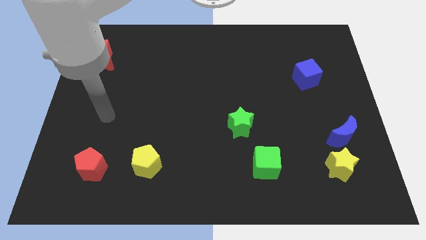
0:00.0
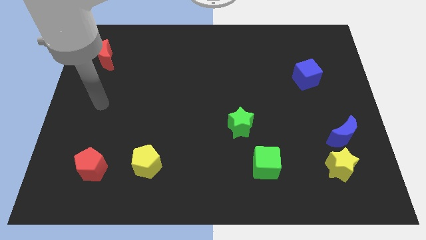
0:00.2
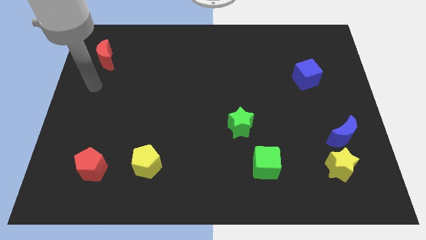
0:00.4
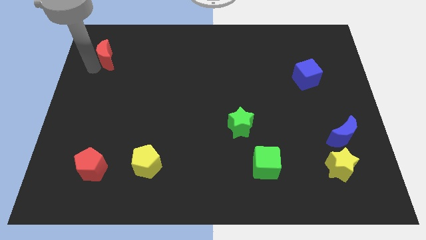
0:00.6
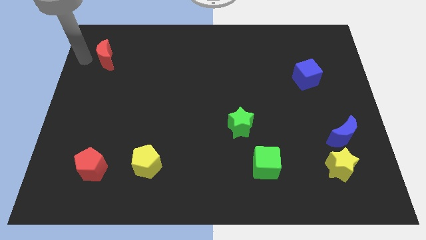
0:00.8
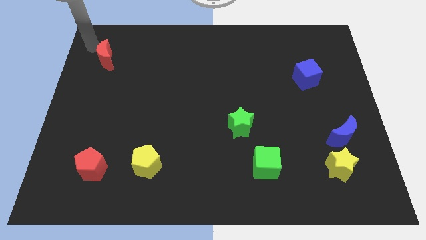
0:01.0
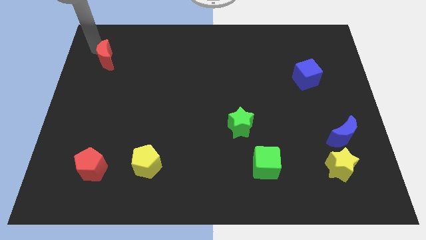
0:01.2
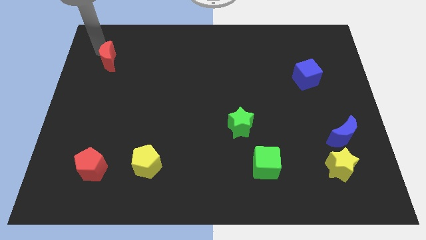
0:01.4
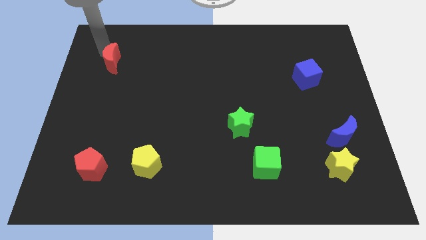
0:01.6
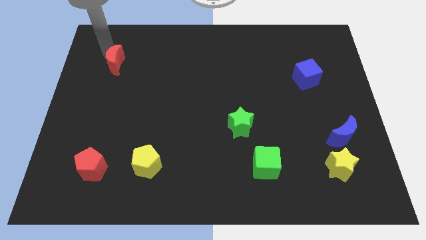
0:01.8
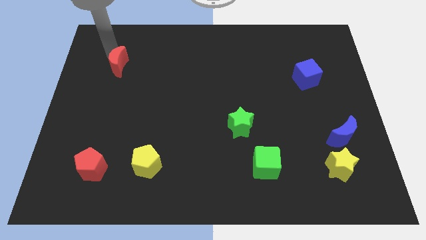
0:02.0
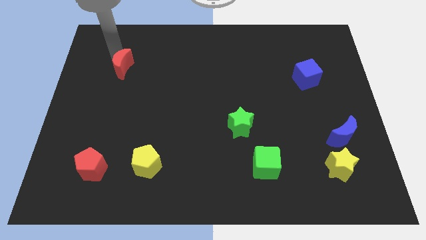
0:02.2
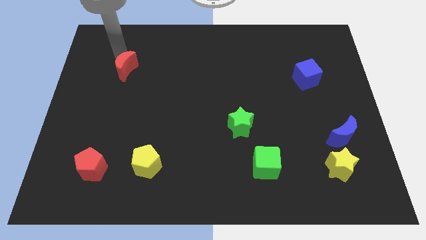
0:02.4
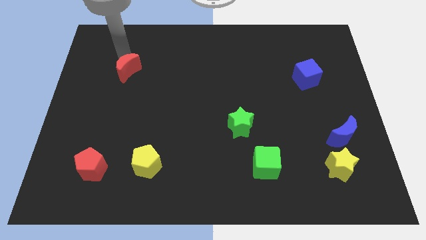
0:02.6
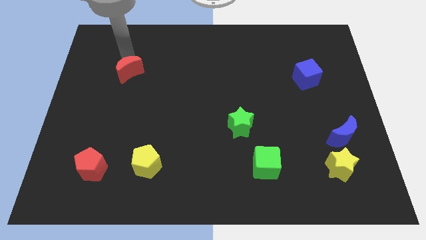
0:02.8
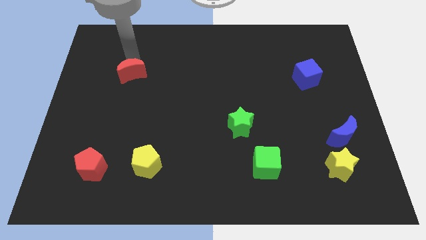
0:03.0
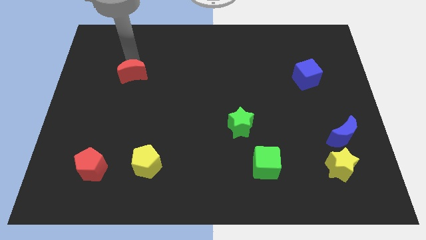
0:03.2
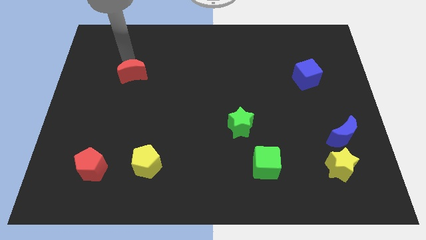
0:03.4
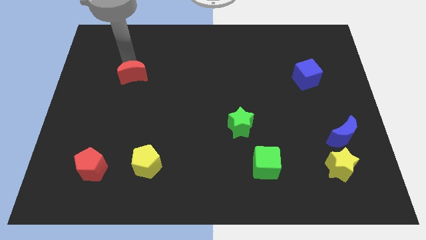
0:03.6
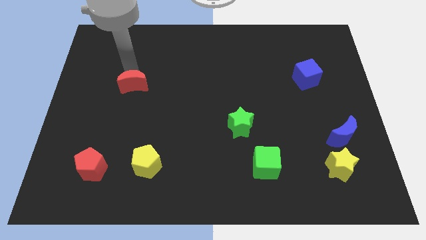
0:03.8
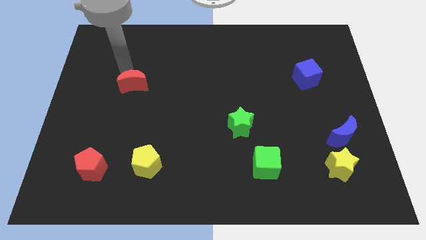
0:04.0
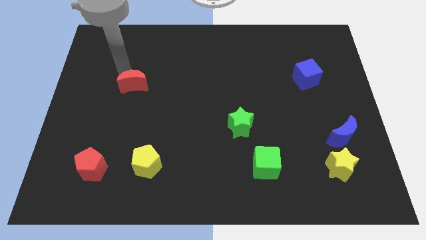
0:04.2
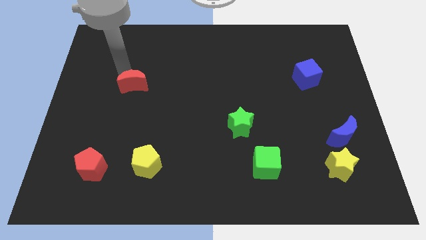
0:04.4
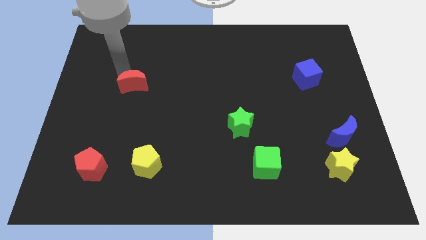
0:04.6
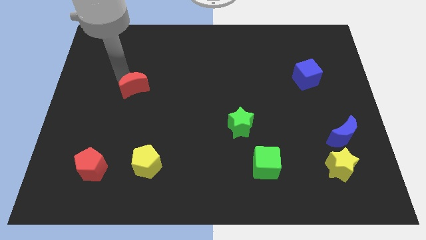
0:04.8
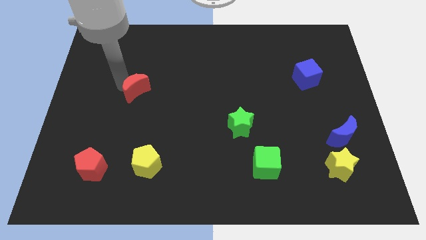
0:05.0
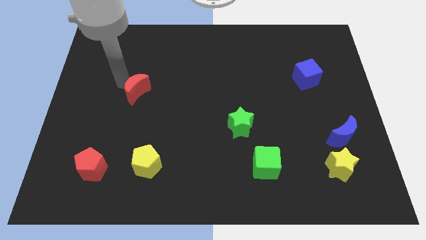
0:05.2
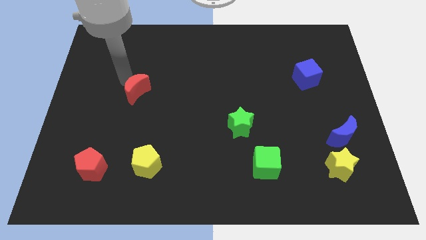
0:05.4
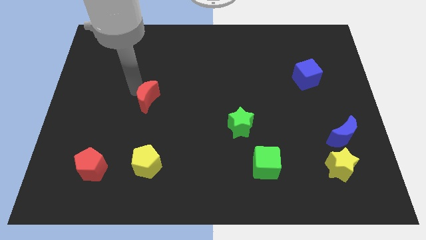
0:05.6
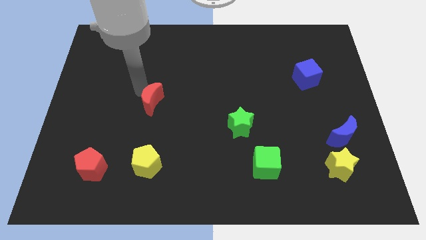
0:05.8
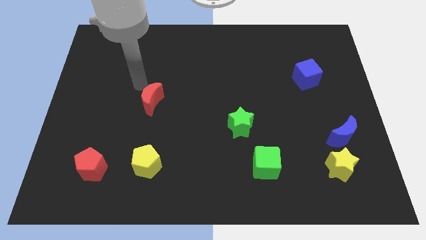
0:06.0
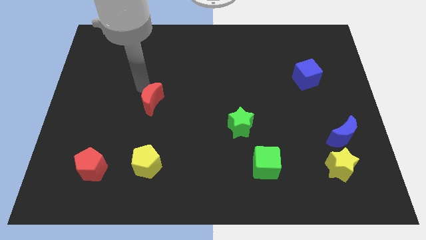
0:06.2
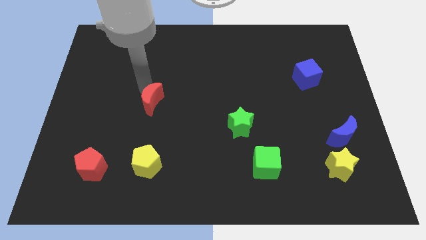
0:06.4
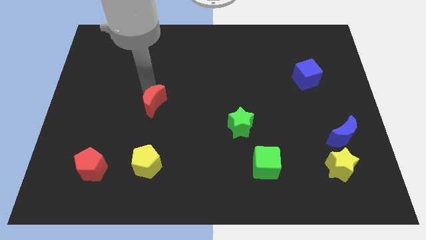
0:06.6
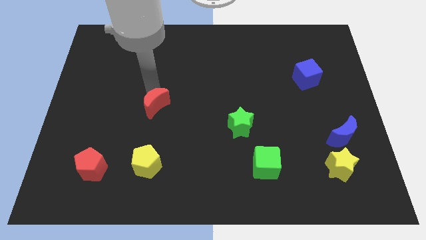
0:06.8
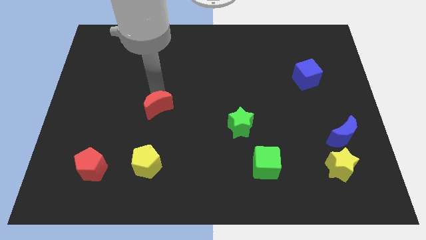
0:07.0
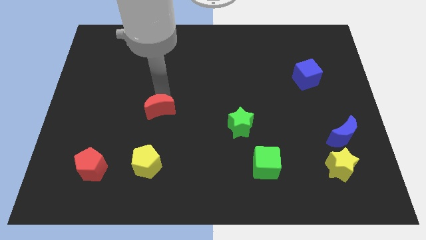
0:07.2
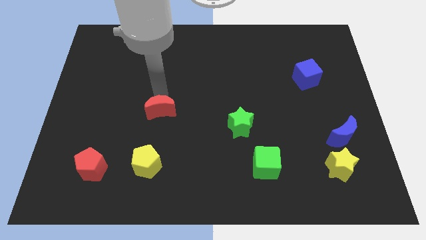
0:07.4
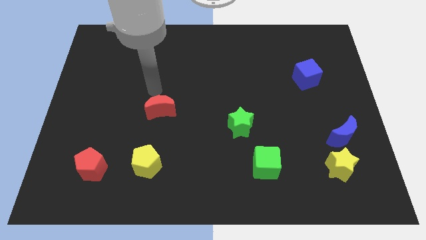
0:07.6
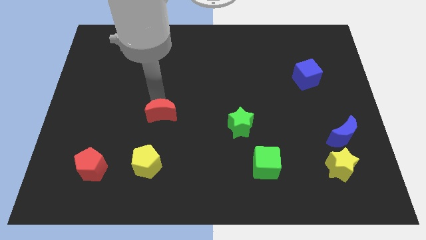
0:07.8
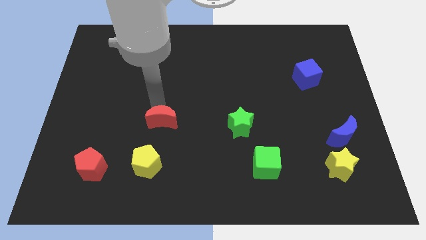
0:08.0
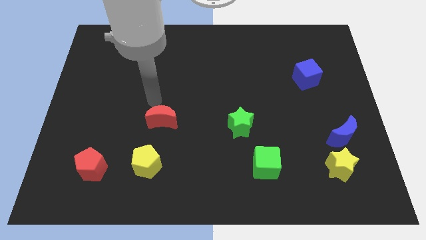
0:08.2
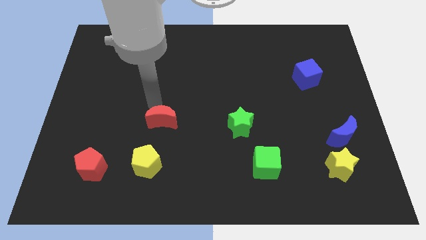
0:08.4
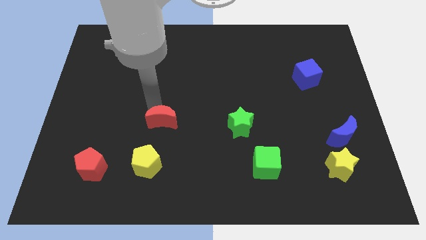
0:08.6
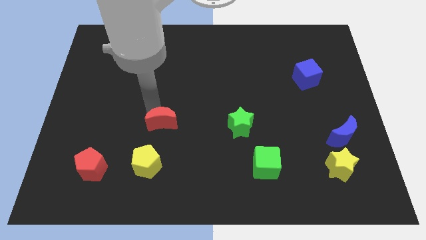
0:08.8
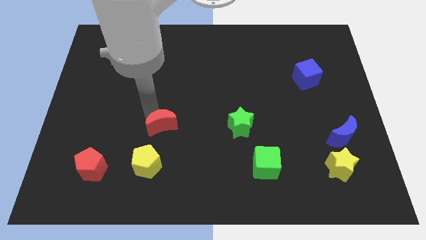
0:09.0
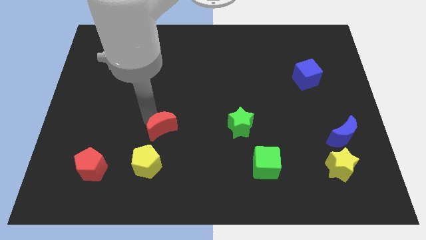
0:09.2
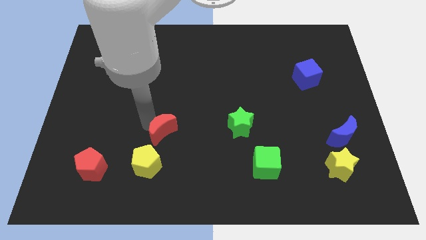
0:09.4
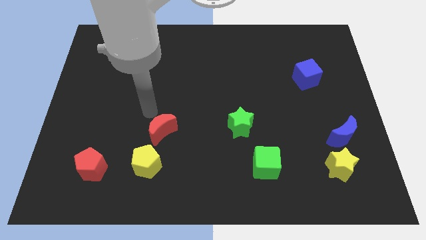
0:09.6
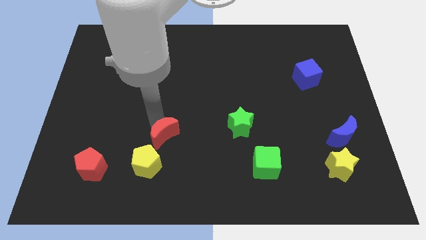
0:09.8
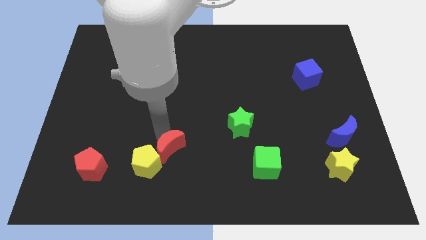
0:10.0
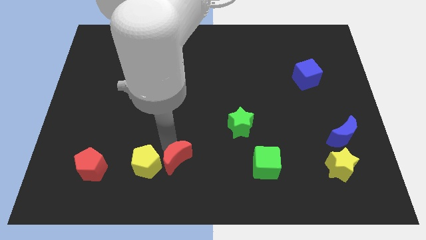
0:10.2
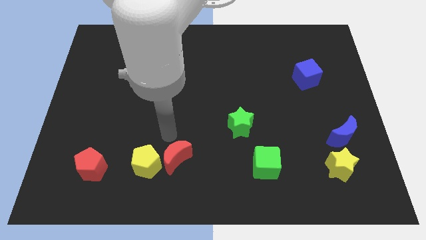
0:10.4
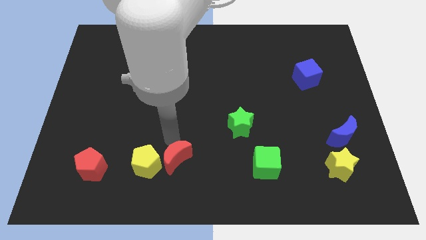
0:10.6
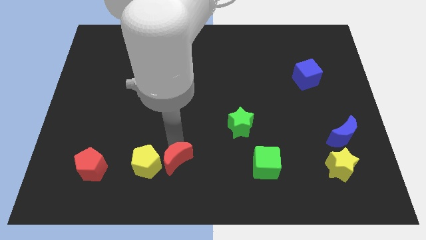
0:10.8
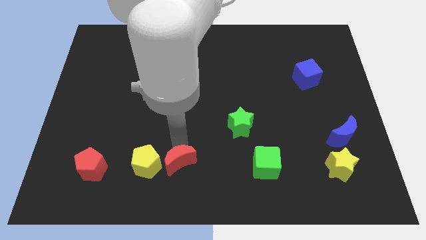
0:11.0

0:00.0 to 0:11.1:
put the red moon to the bottom

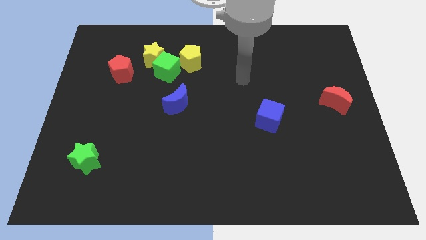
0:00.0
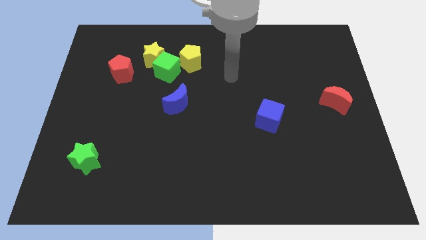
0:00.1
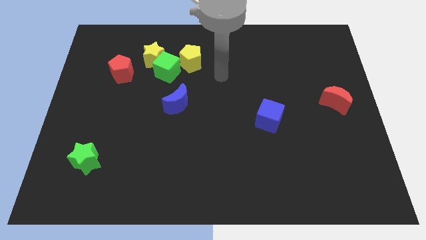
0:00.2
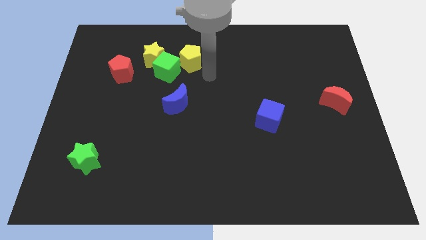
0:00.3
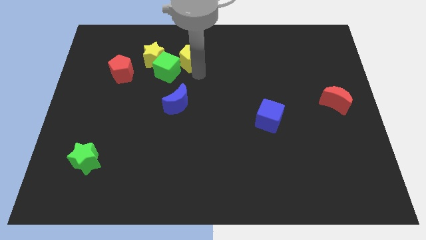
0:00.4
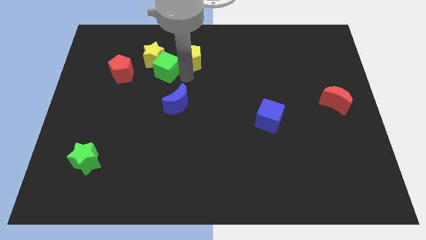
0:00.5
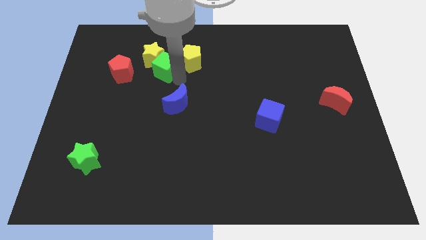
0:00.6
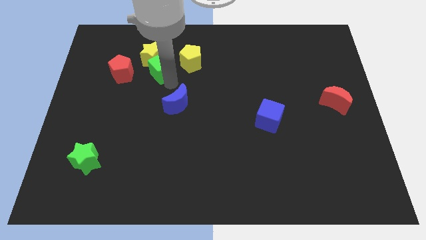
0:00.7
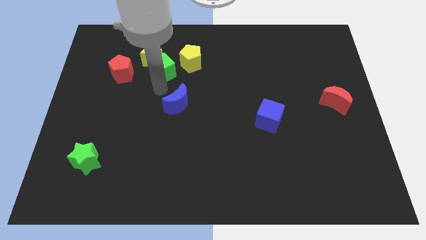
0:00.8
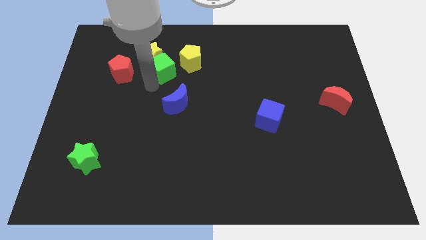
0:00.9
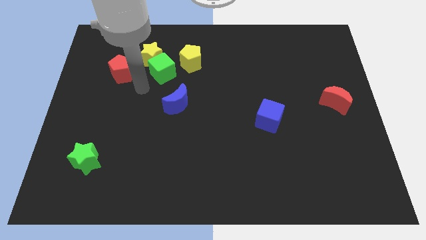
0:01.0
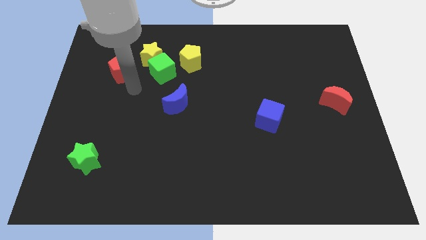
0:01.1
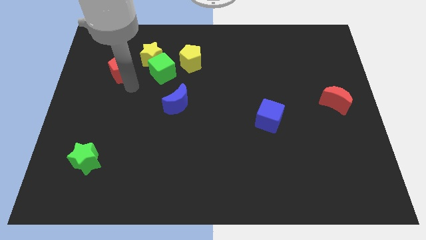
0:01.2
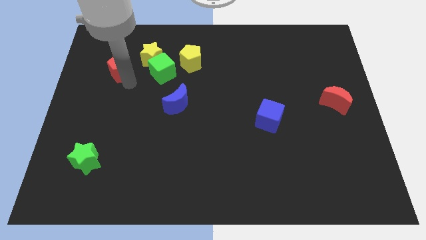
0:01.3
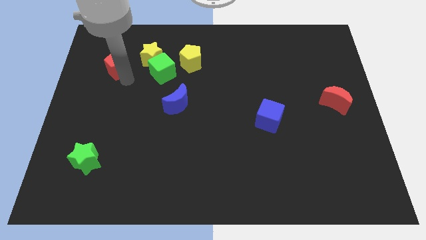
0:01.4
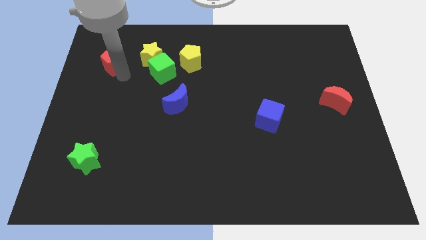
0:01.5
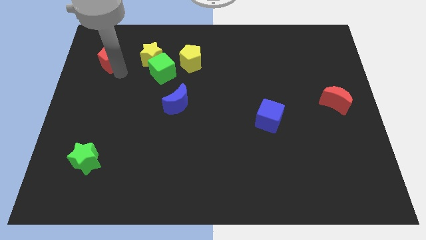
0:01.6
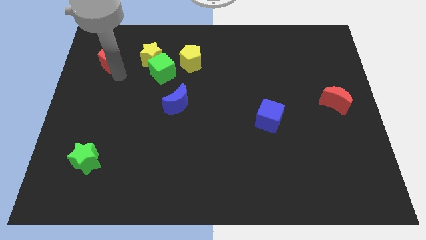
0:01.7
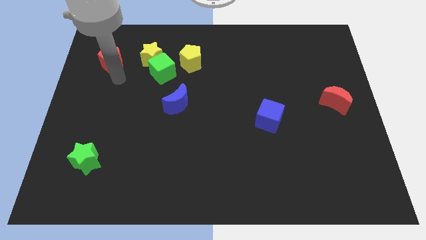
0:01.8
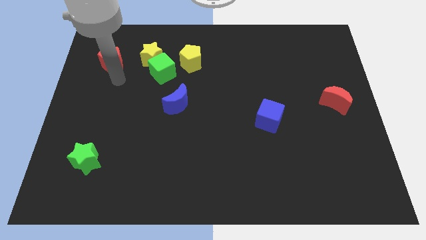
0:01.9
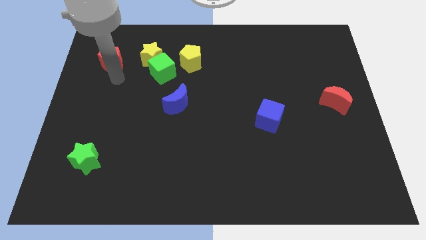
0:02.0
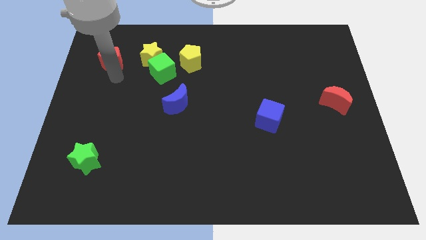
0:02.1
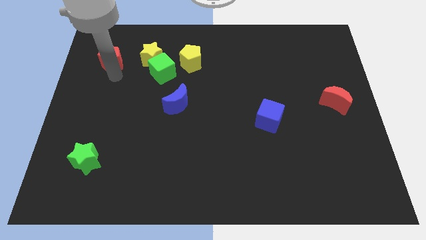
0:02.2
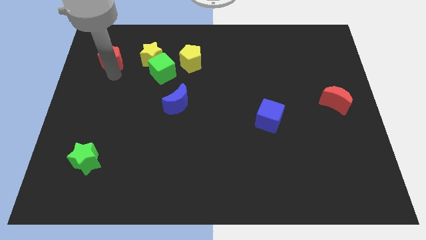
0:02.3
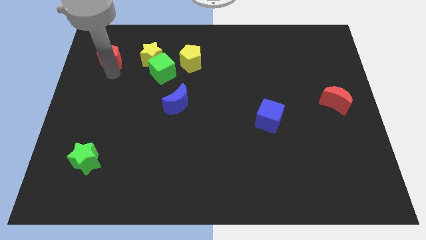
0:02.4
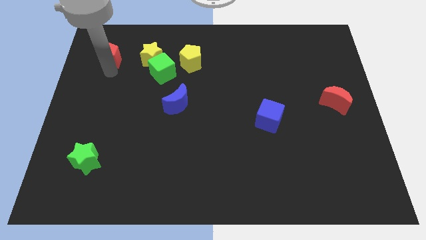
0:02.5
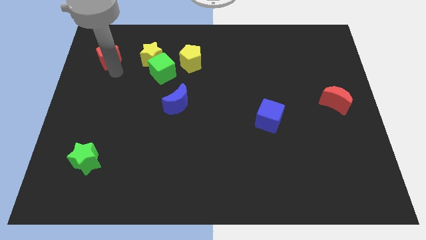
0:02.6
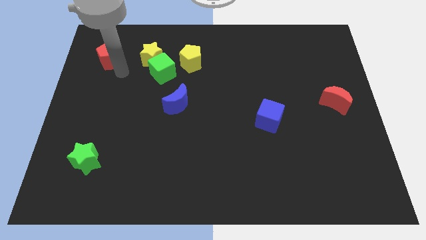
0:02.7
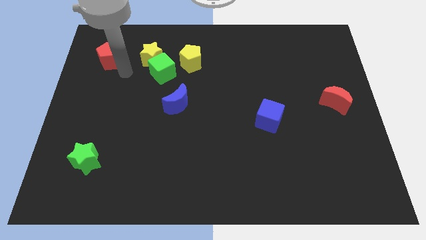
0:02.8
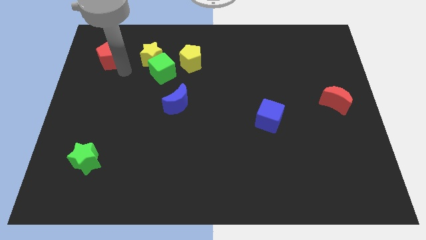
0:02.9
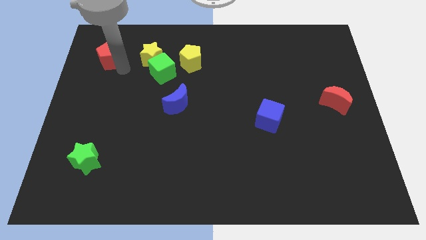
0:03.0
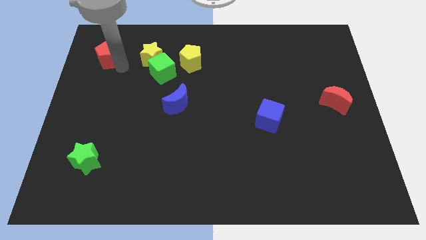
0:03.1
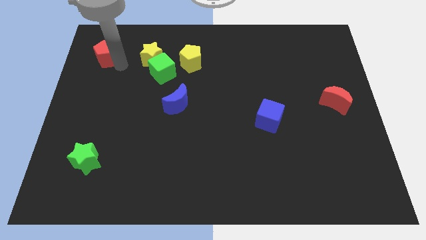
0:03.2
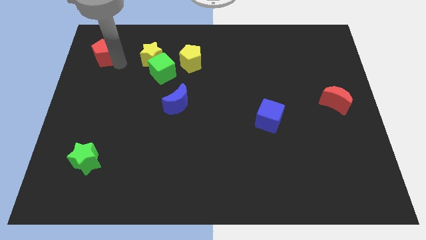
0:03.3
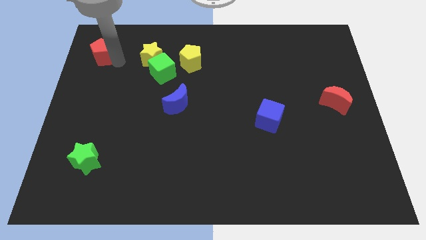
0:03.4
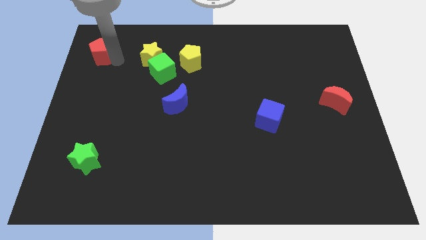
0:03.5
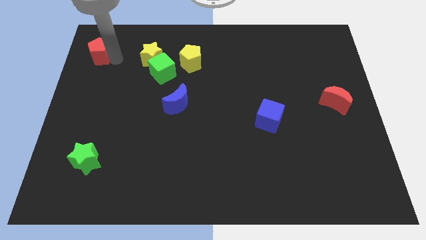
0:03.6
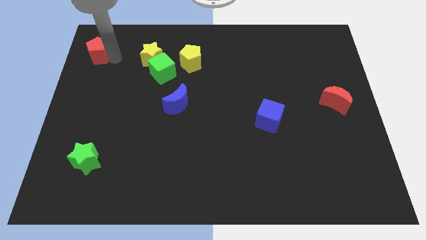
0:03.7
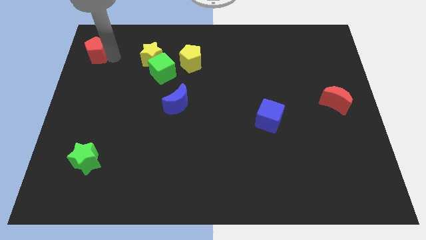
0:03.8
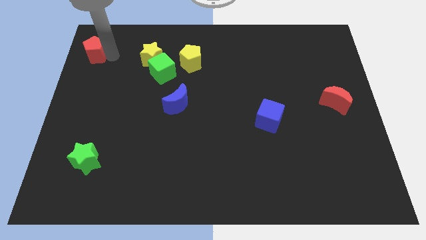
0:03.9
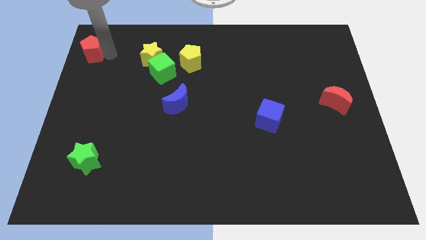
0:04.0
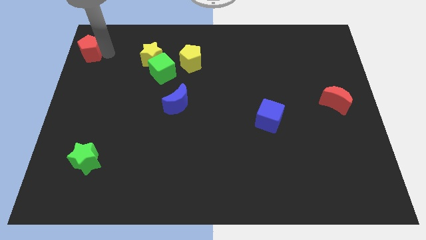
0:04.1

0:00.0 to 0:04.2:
move the red pentagon to the top left of the board
